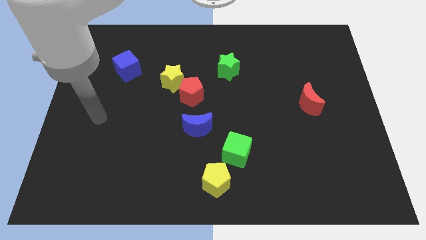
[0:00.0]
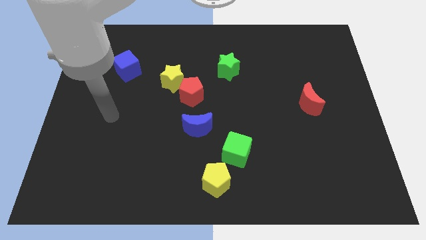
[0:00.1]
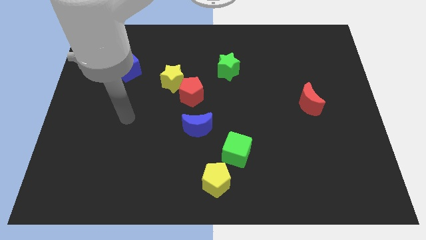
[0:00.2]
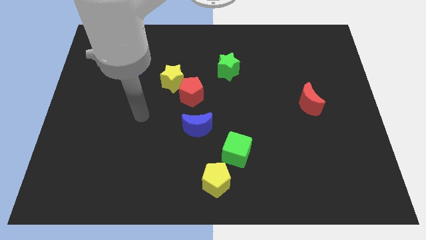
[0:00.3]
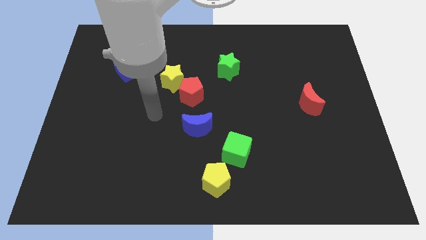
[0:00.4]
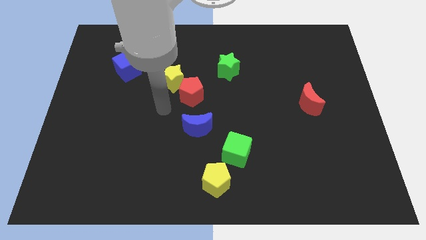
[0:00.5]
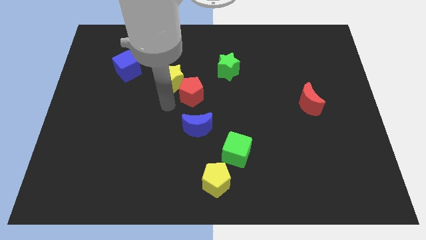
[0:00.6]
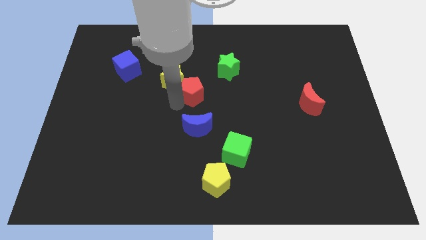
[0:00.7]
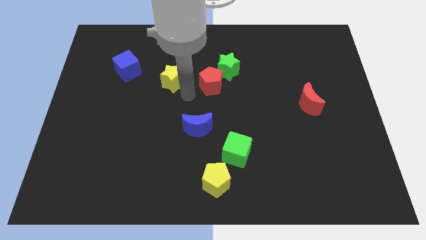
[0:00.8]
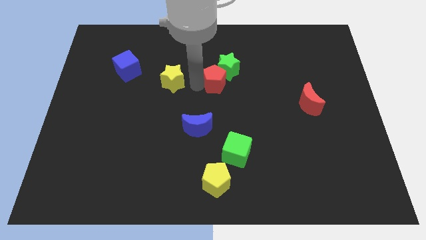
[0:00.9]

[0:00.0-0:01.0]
separate the yellow star from the red pentagon

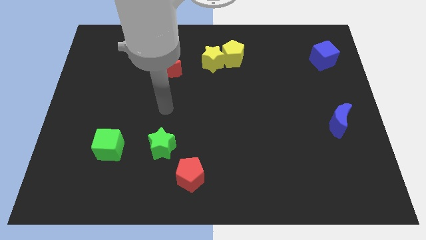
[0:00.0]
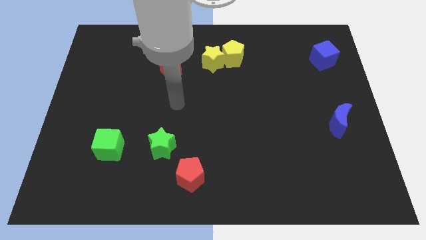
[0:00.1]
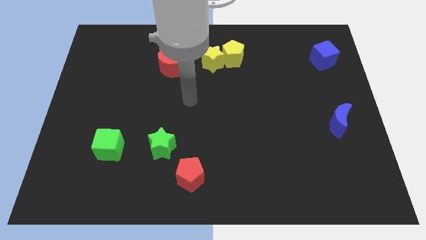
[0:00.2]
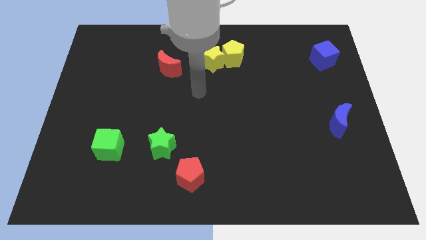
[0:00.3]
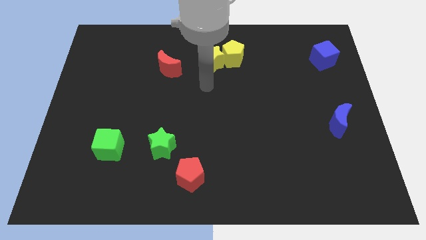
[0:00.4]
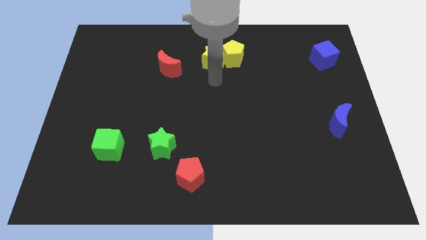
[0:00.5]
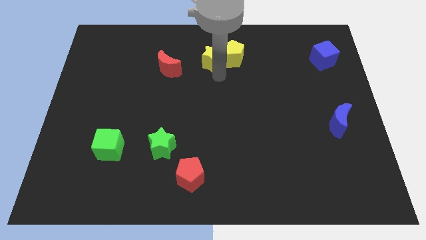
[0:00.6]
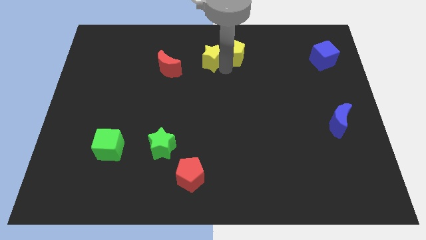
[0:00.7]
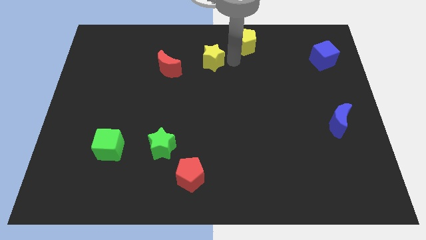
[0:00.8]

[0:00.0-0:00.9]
separate the yellow star from the yellow pentagon

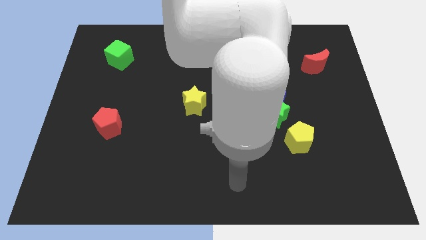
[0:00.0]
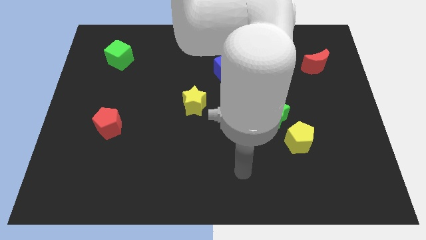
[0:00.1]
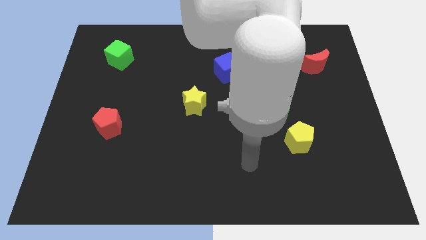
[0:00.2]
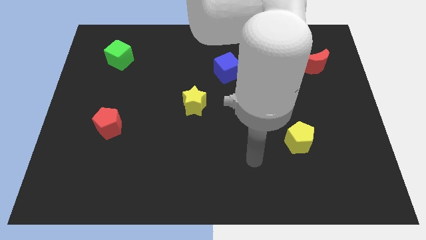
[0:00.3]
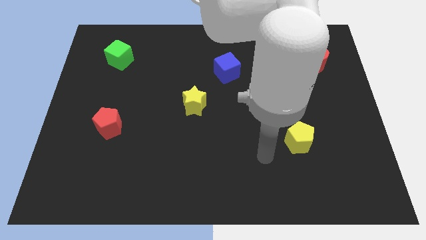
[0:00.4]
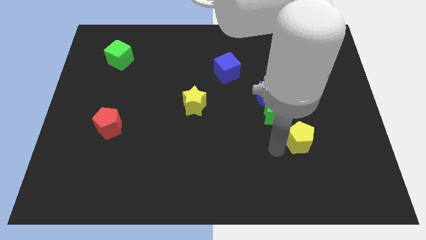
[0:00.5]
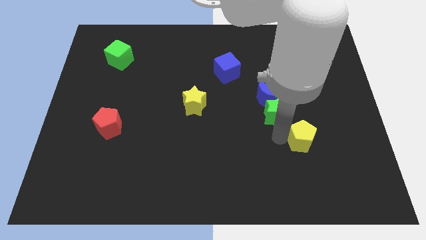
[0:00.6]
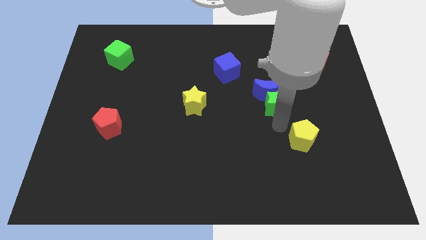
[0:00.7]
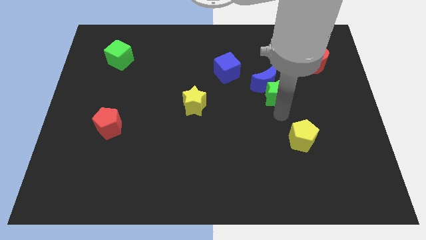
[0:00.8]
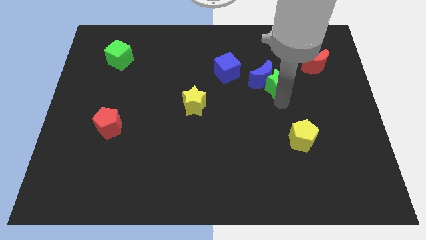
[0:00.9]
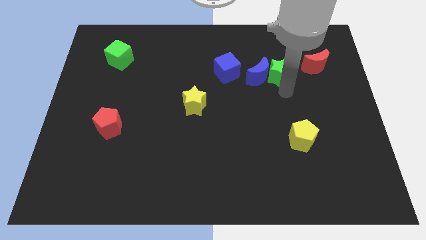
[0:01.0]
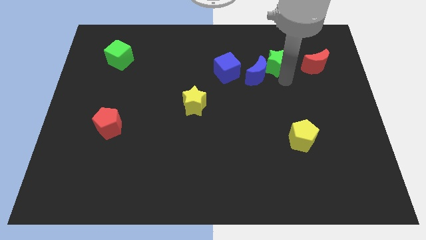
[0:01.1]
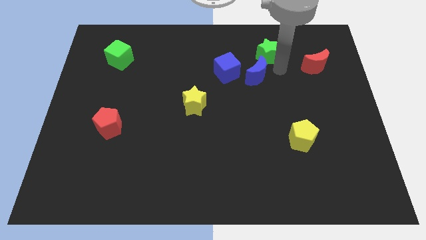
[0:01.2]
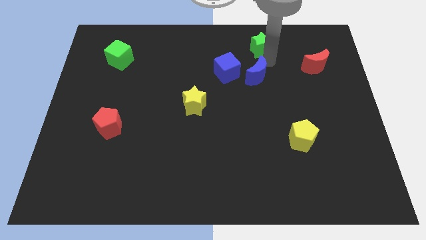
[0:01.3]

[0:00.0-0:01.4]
separate the blue moon from the green star

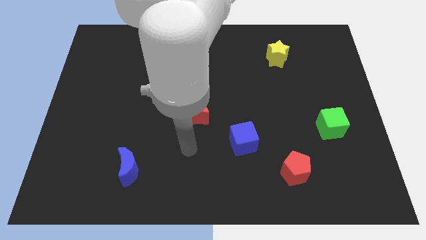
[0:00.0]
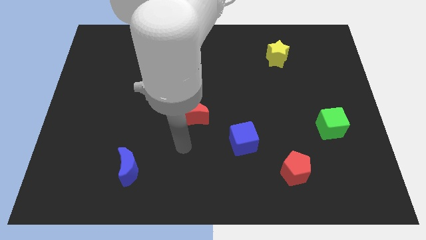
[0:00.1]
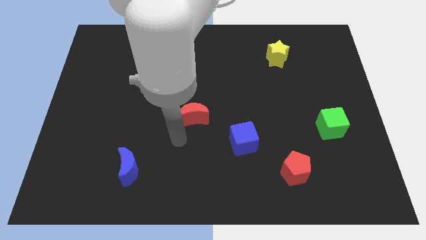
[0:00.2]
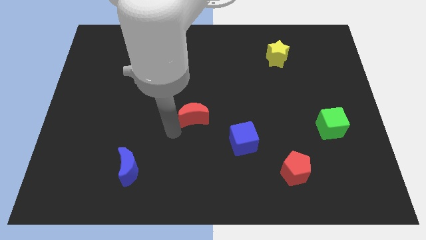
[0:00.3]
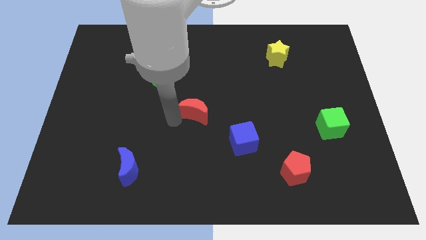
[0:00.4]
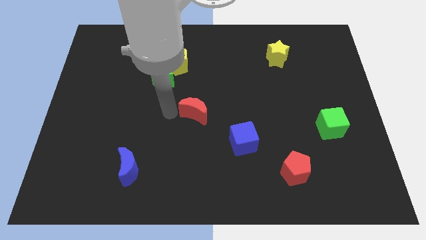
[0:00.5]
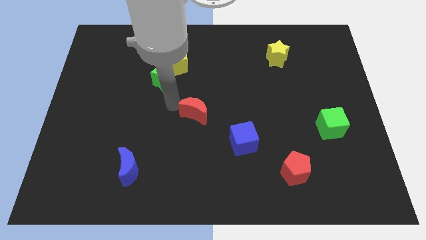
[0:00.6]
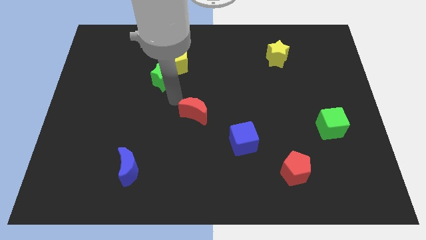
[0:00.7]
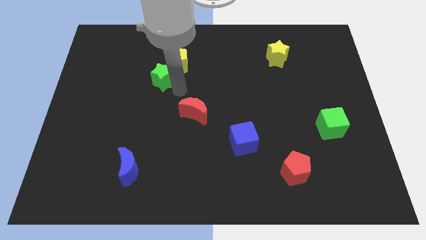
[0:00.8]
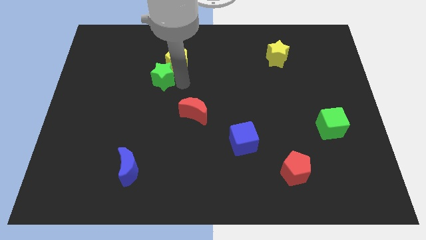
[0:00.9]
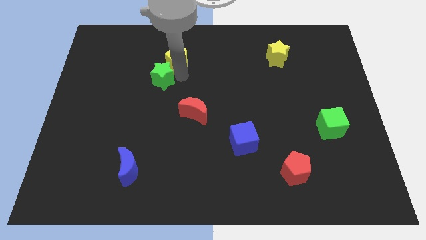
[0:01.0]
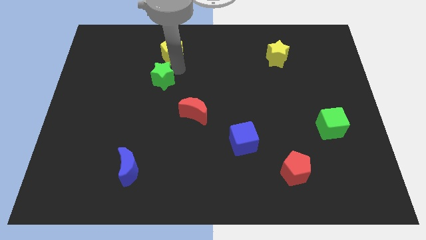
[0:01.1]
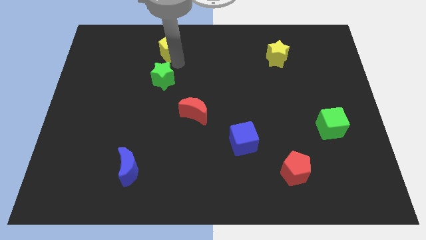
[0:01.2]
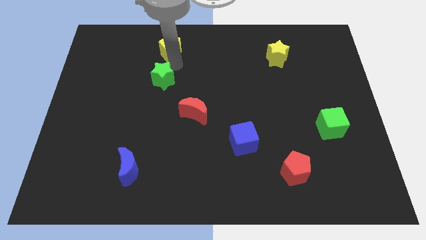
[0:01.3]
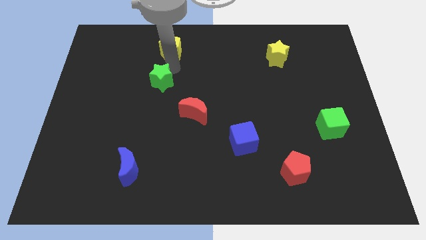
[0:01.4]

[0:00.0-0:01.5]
move the green star away from the yellow pentagon

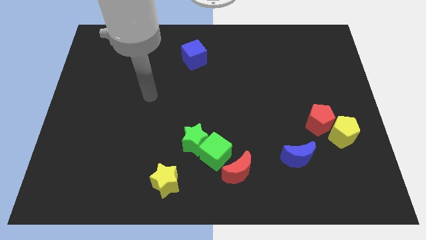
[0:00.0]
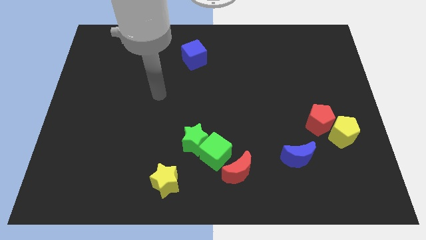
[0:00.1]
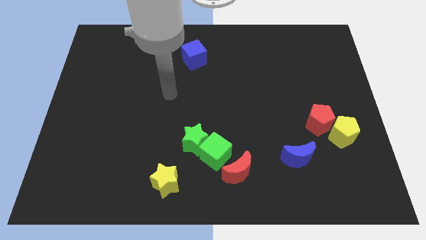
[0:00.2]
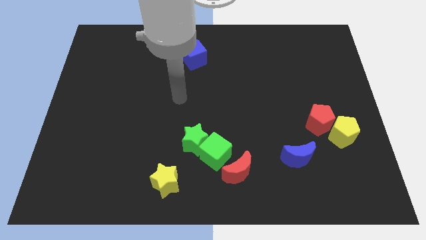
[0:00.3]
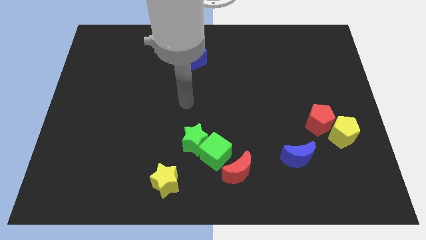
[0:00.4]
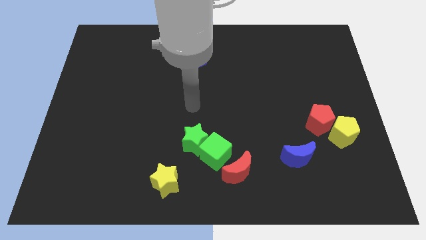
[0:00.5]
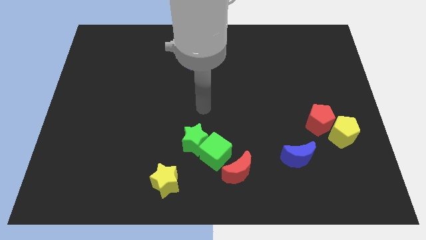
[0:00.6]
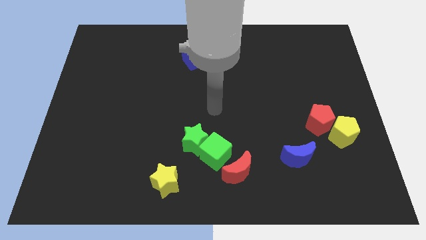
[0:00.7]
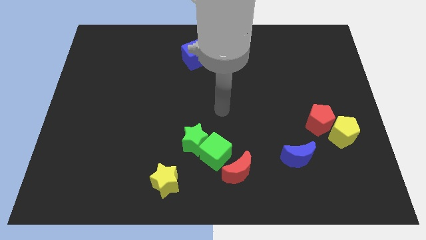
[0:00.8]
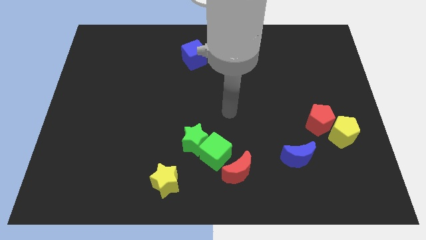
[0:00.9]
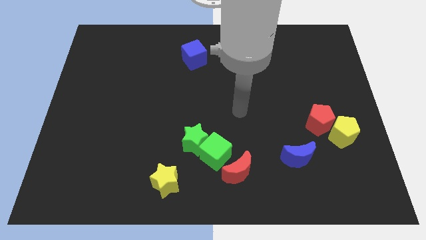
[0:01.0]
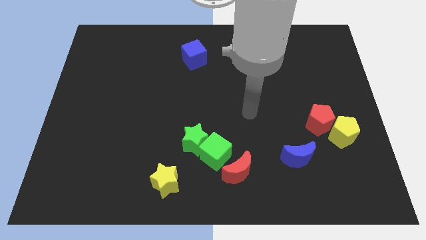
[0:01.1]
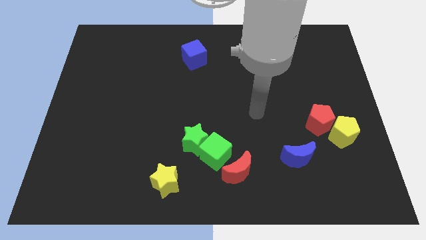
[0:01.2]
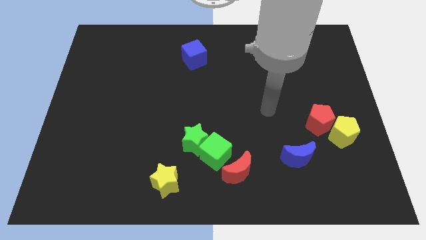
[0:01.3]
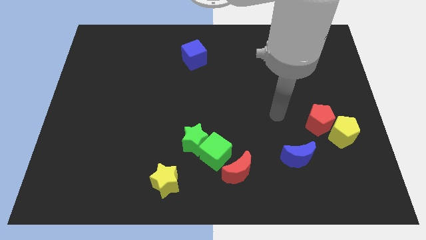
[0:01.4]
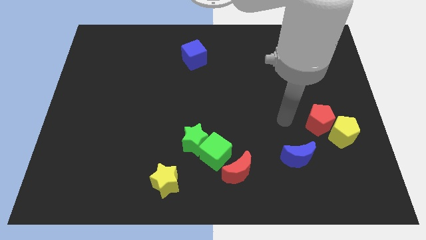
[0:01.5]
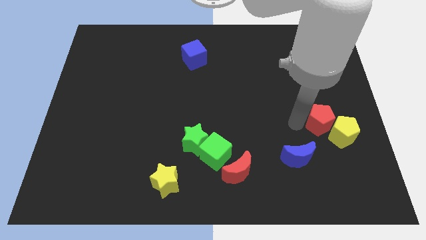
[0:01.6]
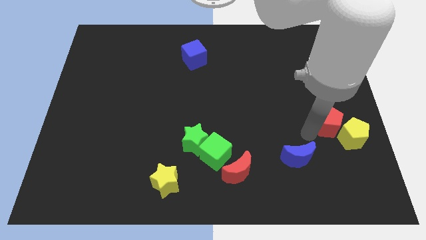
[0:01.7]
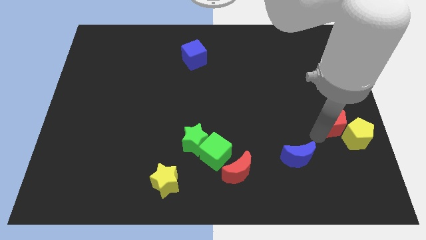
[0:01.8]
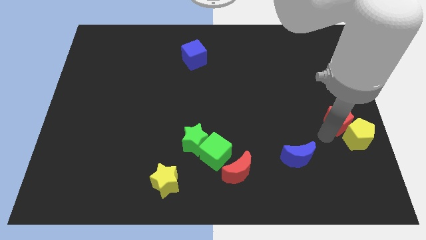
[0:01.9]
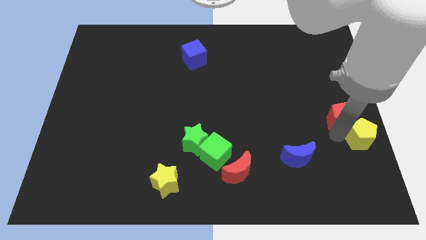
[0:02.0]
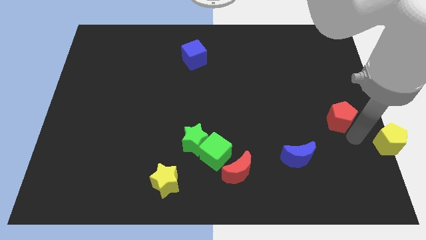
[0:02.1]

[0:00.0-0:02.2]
move the red pentagon away from the yellow pentagon

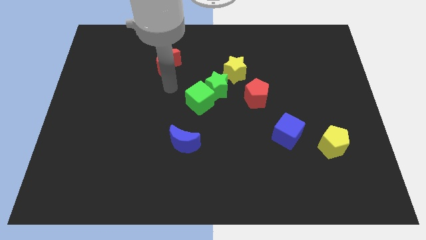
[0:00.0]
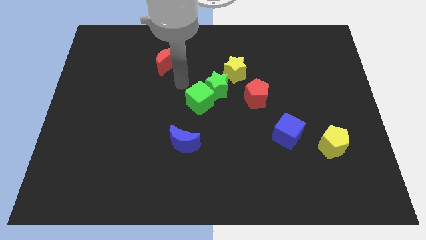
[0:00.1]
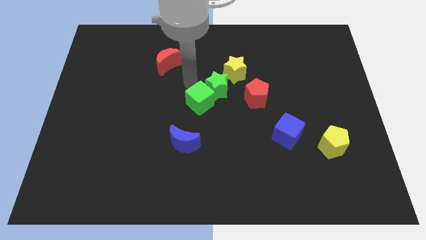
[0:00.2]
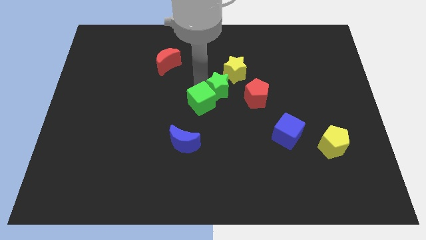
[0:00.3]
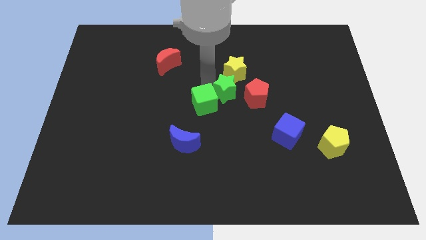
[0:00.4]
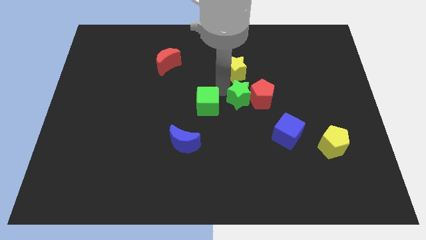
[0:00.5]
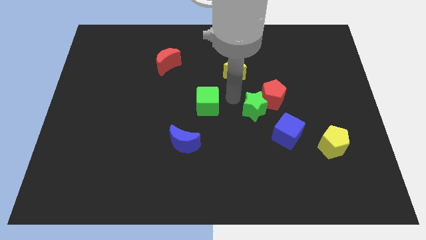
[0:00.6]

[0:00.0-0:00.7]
separate the green cube from the green star

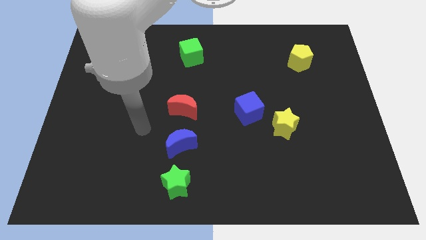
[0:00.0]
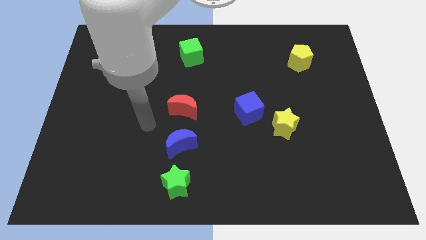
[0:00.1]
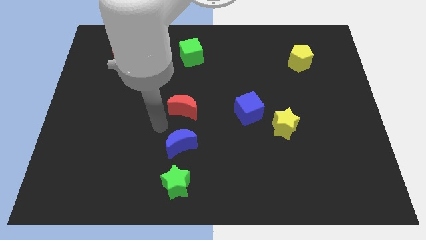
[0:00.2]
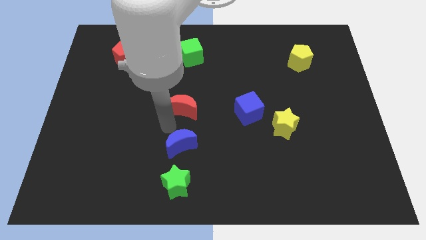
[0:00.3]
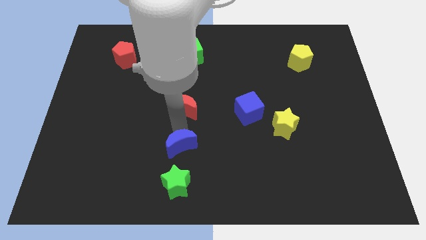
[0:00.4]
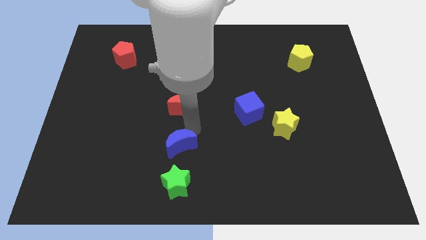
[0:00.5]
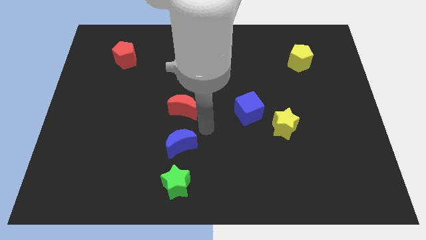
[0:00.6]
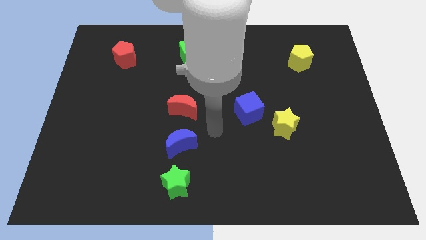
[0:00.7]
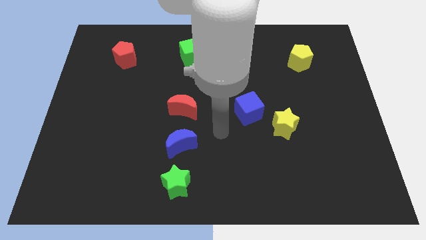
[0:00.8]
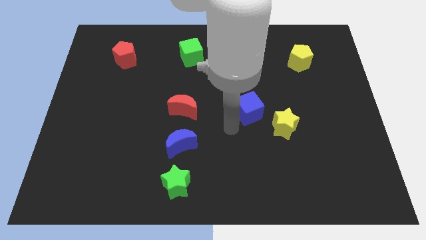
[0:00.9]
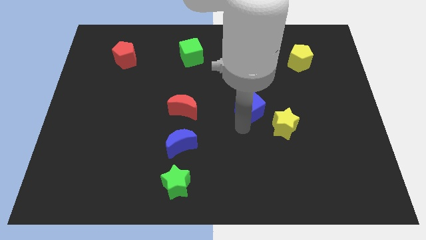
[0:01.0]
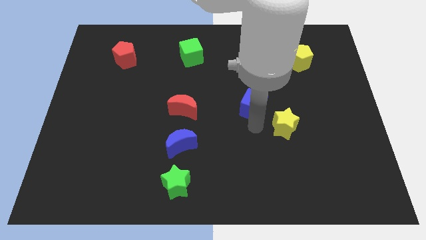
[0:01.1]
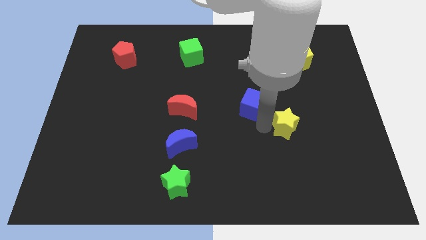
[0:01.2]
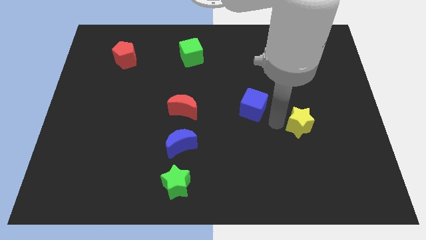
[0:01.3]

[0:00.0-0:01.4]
pull the blue cube apart from the yellow star

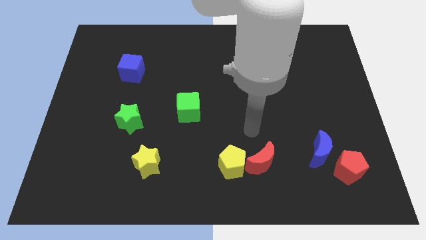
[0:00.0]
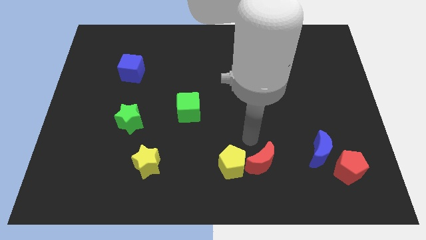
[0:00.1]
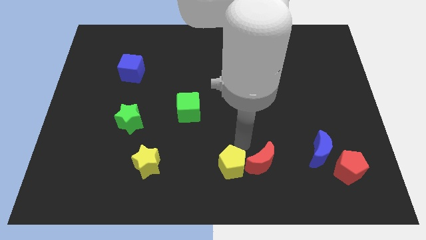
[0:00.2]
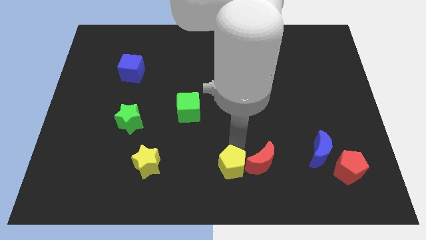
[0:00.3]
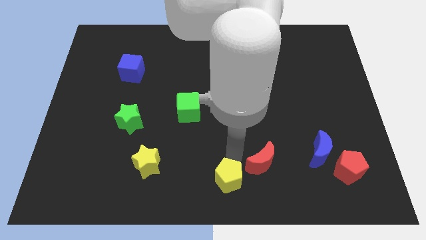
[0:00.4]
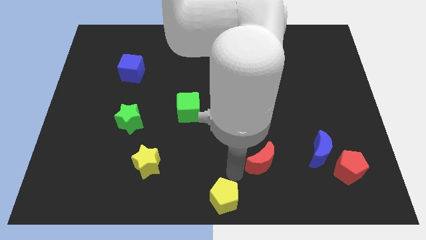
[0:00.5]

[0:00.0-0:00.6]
move the red moon away from the yellow pentagon
